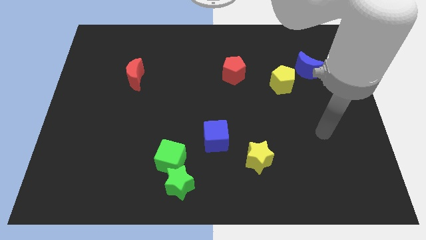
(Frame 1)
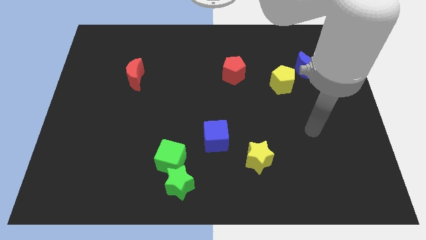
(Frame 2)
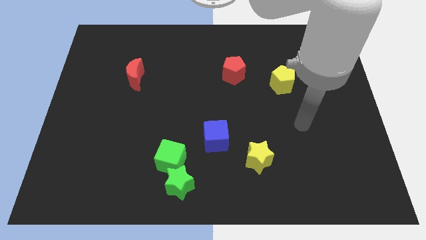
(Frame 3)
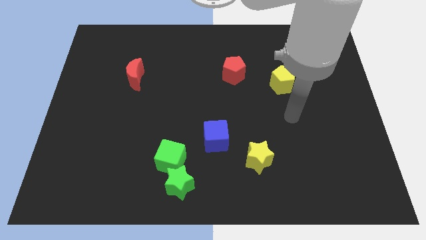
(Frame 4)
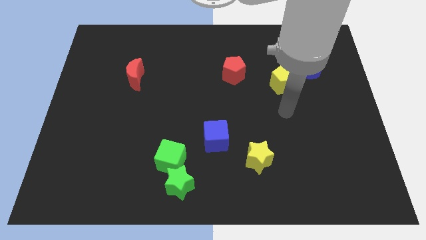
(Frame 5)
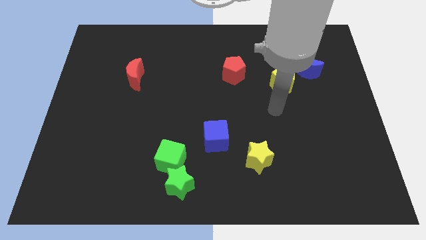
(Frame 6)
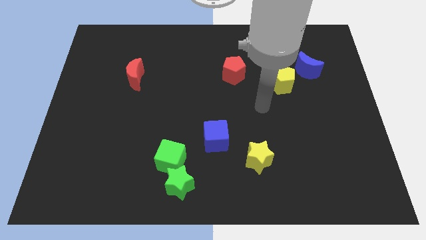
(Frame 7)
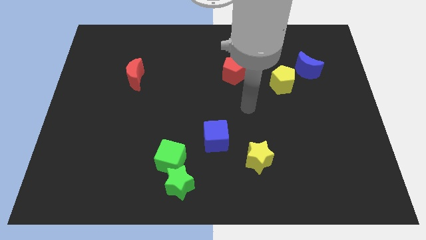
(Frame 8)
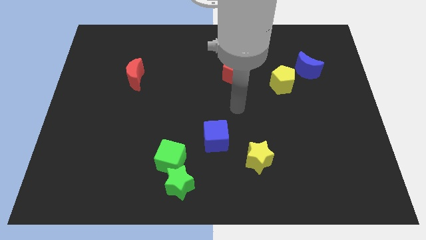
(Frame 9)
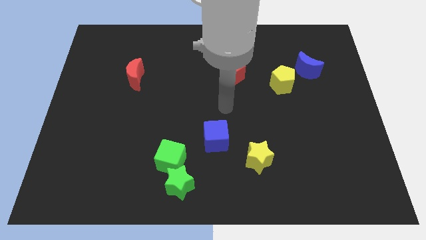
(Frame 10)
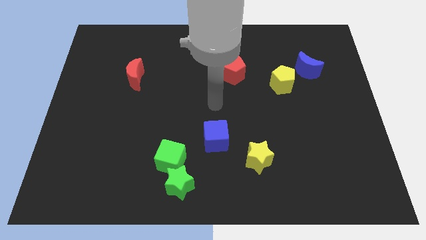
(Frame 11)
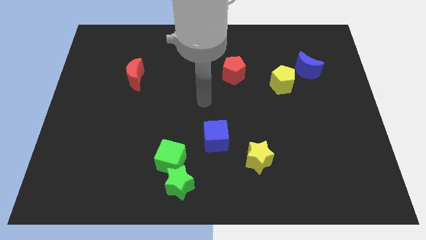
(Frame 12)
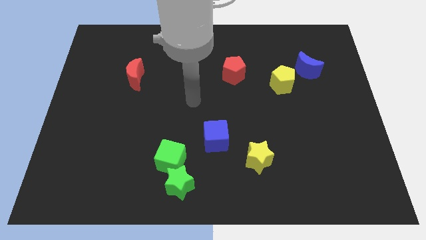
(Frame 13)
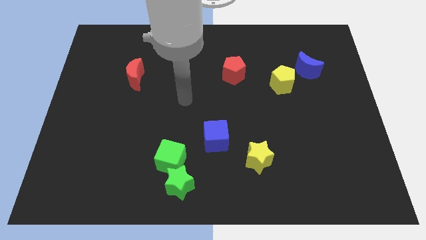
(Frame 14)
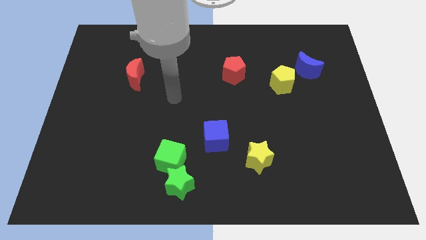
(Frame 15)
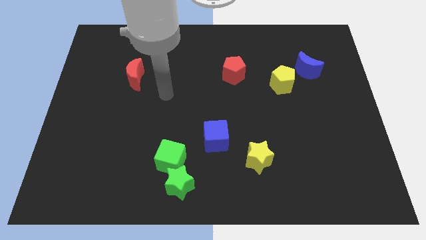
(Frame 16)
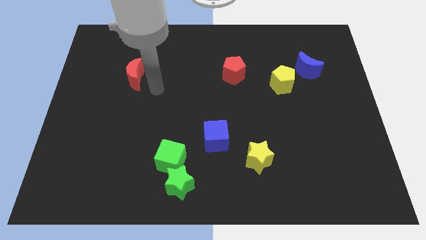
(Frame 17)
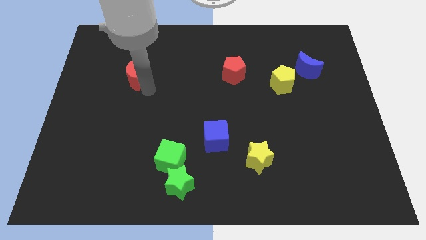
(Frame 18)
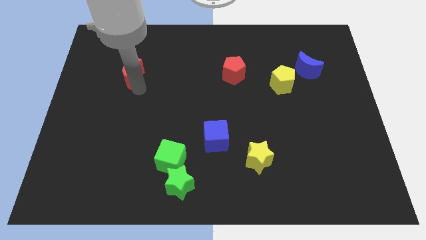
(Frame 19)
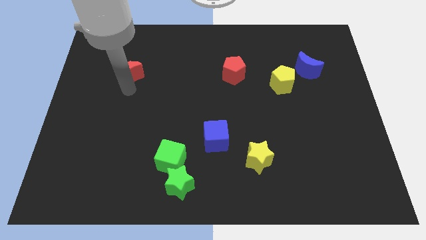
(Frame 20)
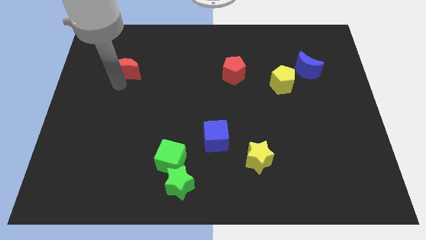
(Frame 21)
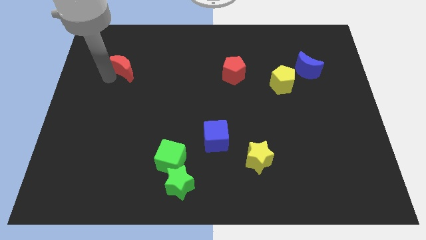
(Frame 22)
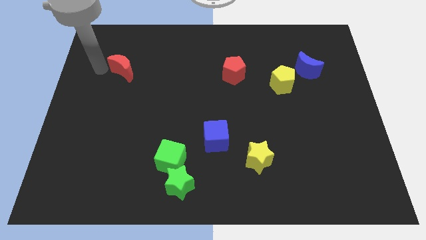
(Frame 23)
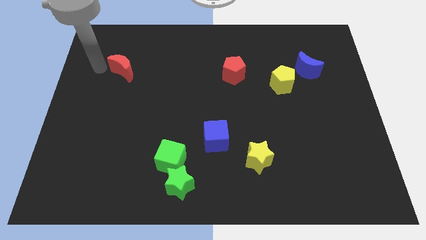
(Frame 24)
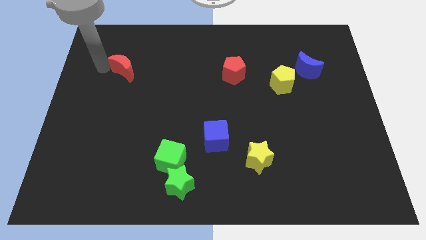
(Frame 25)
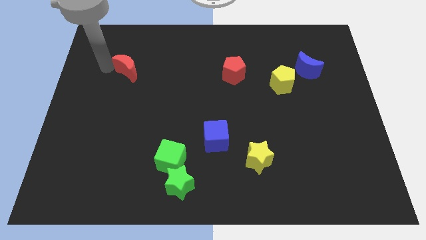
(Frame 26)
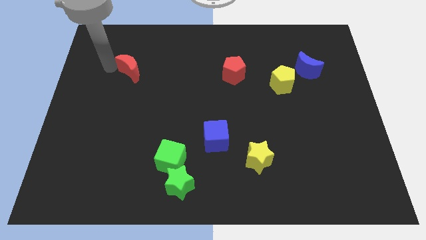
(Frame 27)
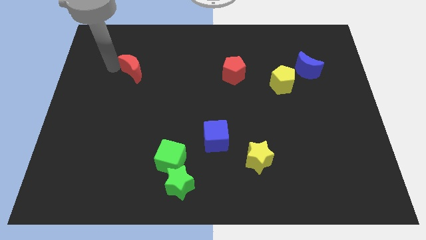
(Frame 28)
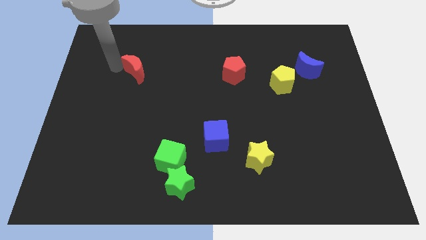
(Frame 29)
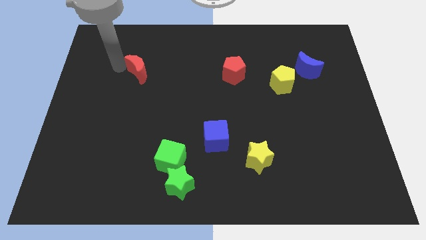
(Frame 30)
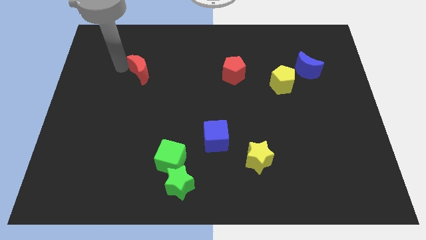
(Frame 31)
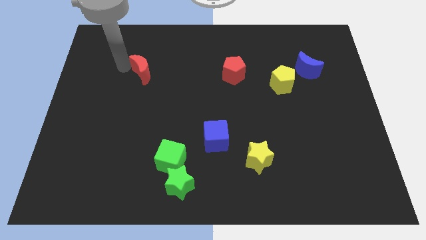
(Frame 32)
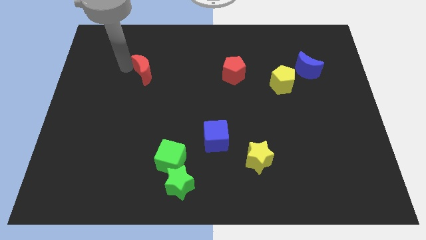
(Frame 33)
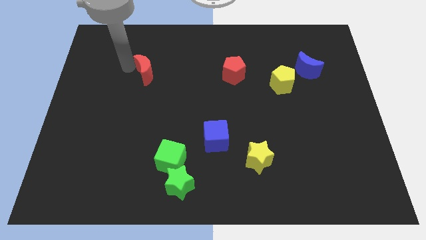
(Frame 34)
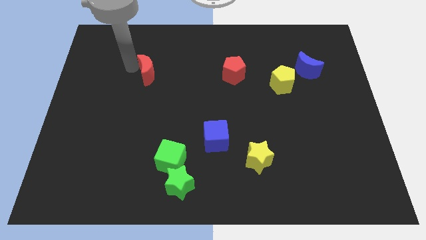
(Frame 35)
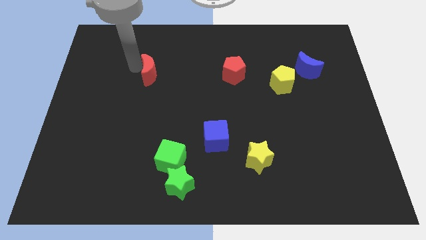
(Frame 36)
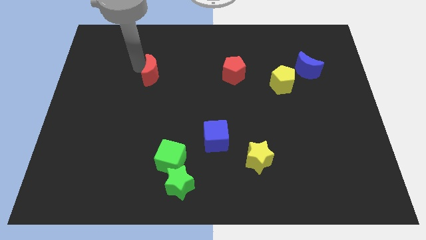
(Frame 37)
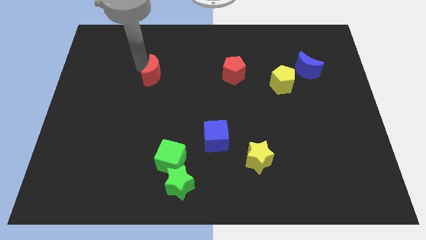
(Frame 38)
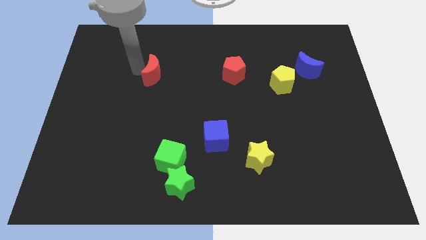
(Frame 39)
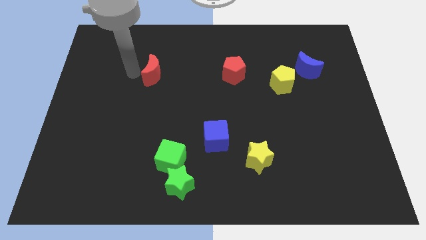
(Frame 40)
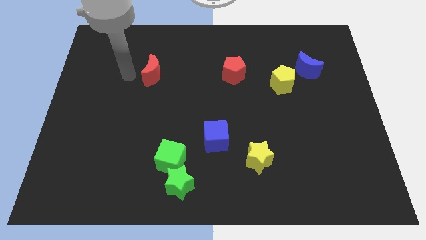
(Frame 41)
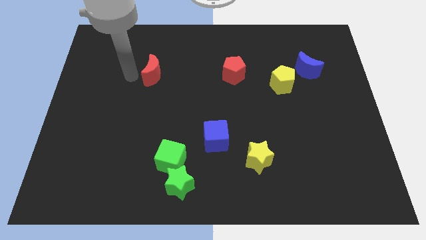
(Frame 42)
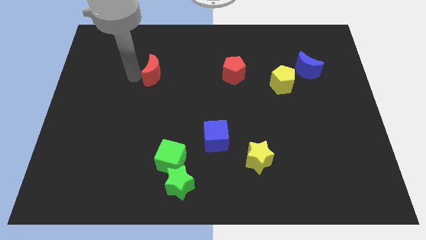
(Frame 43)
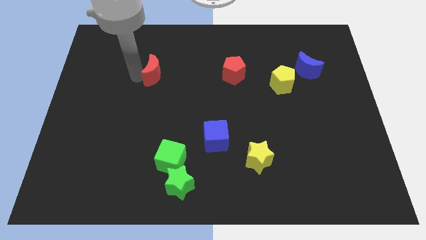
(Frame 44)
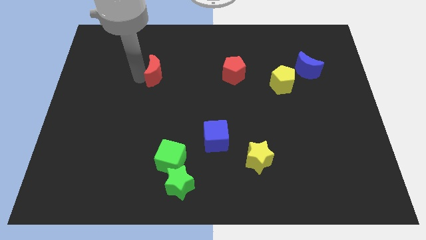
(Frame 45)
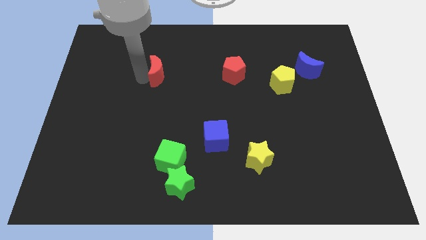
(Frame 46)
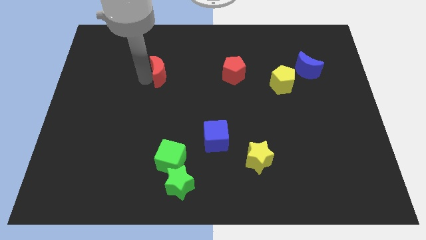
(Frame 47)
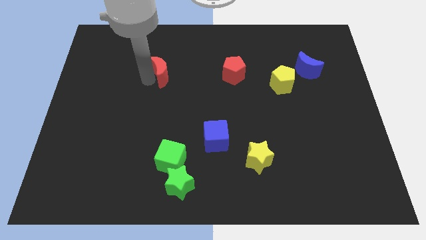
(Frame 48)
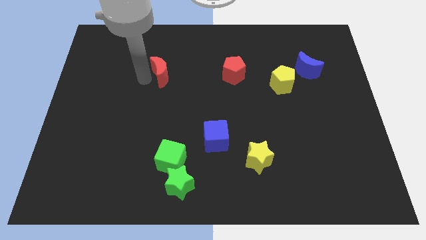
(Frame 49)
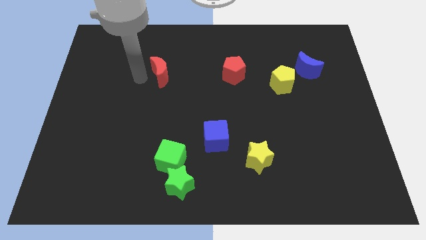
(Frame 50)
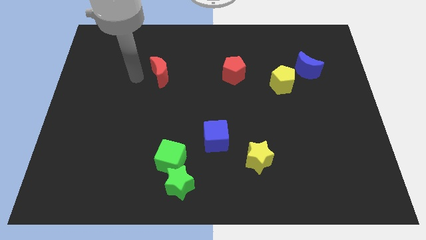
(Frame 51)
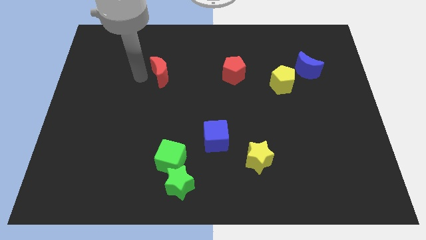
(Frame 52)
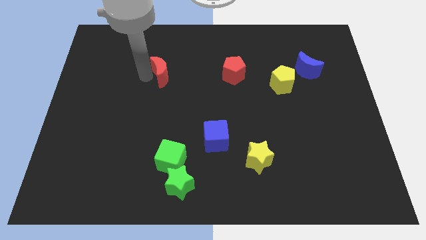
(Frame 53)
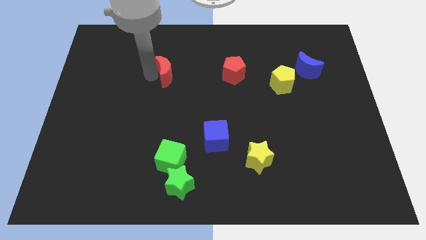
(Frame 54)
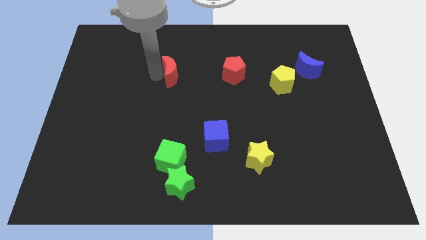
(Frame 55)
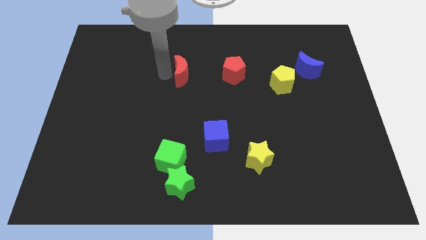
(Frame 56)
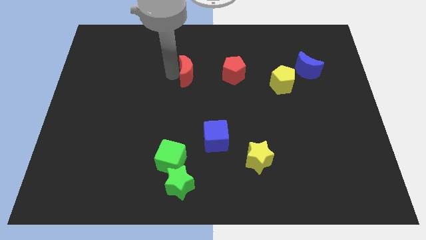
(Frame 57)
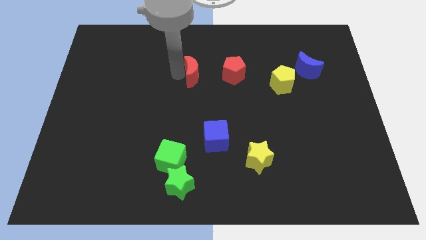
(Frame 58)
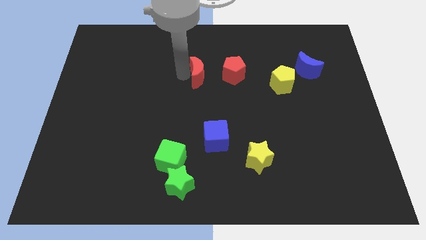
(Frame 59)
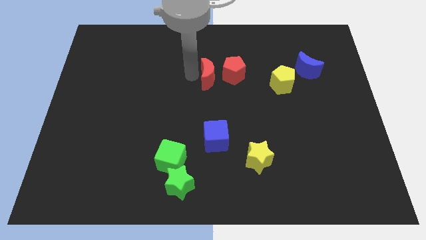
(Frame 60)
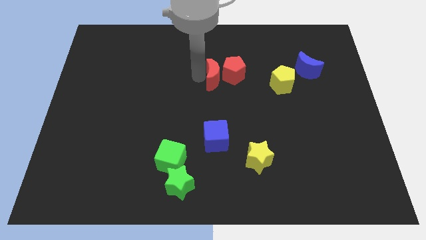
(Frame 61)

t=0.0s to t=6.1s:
put the red moon close to the red pentagon
